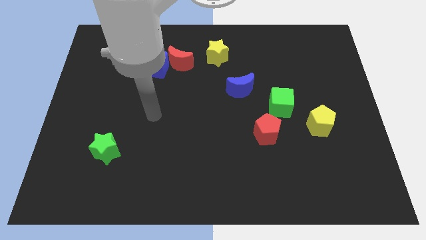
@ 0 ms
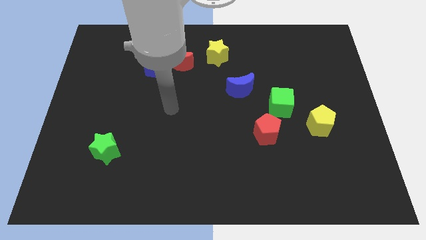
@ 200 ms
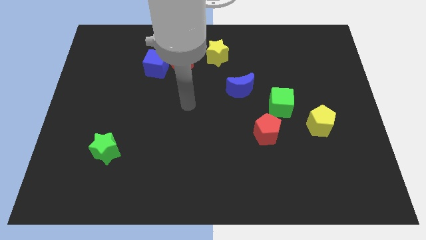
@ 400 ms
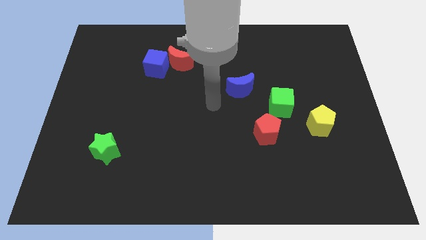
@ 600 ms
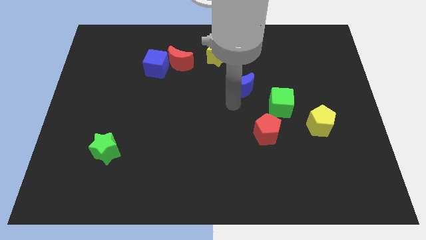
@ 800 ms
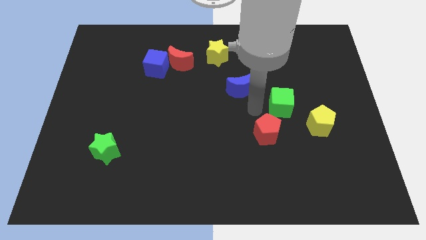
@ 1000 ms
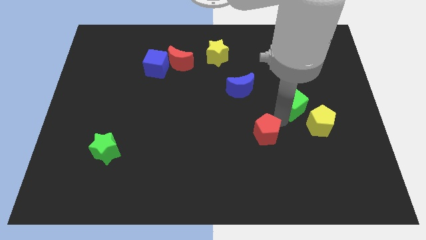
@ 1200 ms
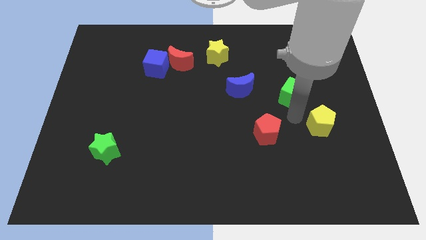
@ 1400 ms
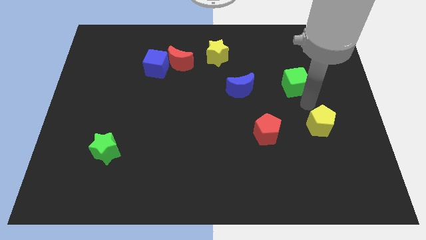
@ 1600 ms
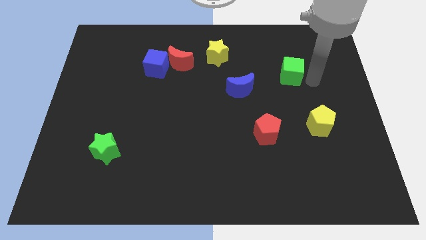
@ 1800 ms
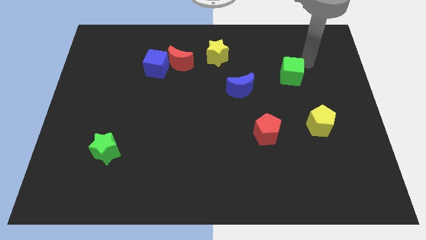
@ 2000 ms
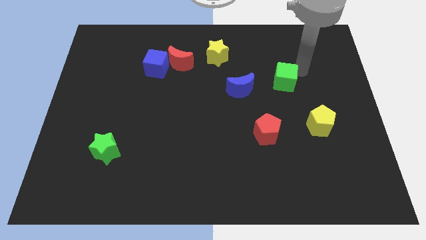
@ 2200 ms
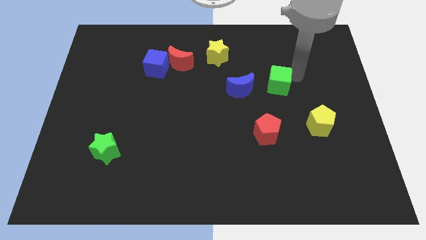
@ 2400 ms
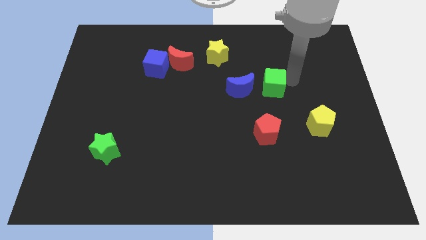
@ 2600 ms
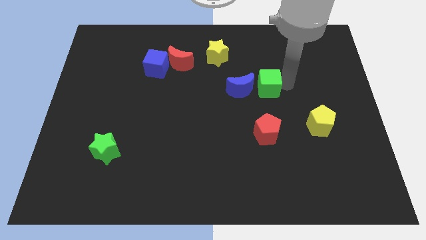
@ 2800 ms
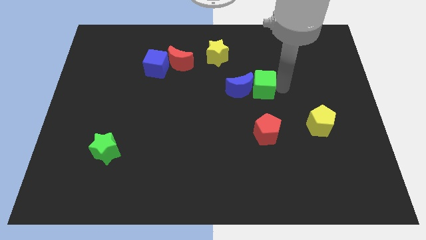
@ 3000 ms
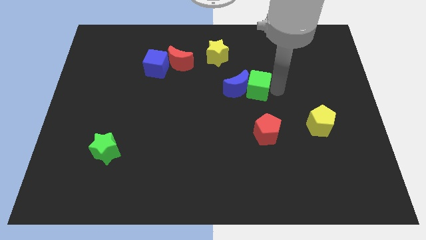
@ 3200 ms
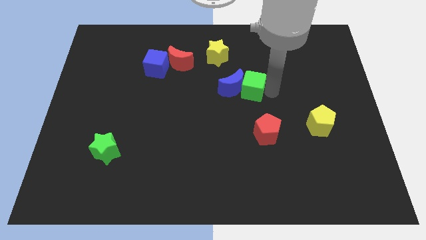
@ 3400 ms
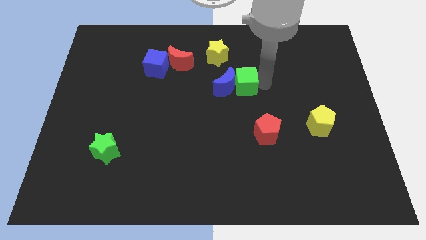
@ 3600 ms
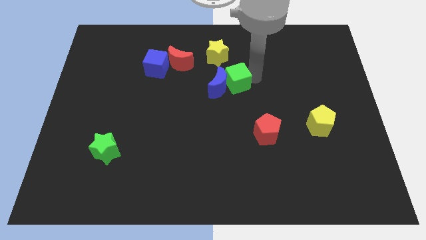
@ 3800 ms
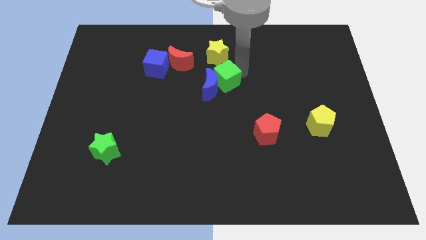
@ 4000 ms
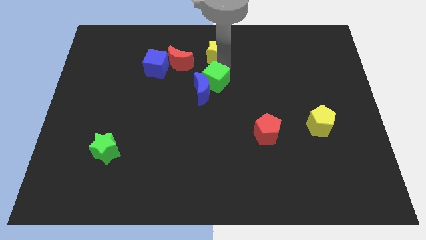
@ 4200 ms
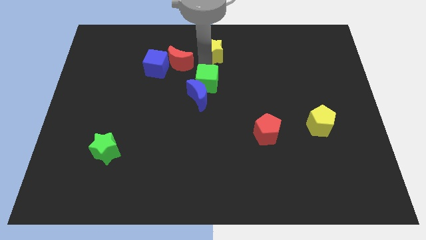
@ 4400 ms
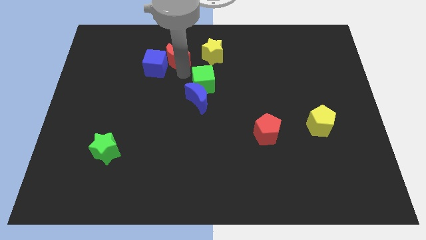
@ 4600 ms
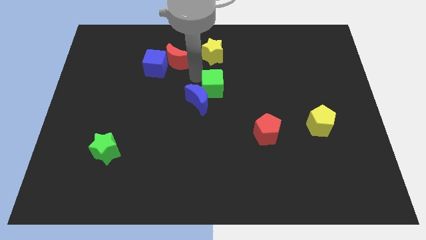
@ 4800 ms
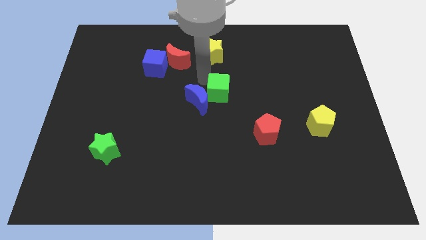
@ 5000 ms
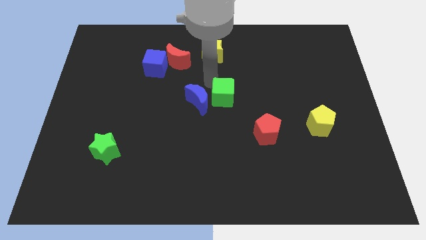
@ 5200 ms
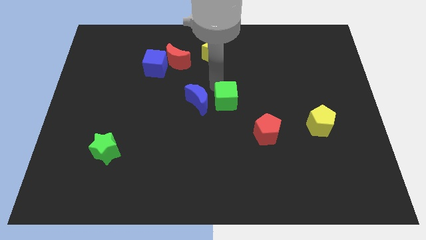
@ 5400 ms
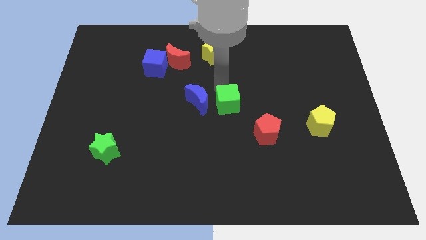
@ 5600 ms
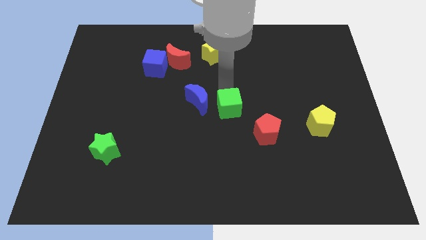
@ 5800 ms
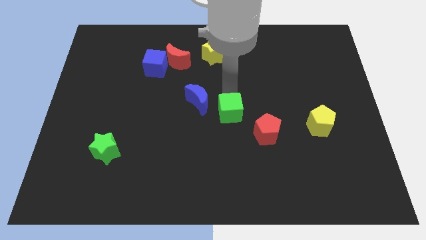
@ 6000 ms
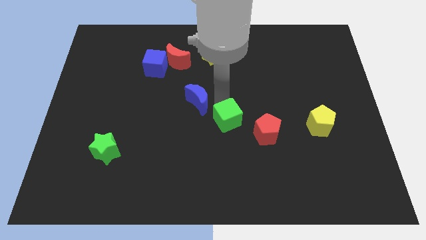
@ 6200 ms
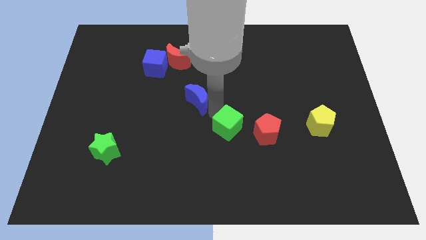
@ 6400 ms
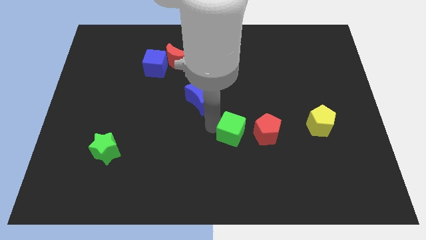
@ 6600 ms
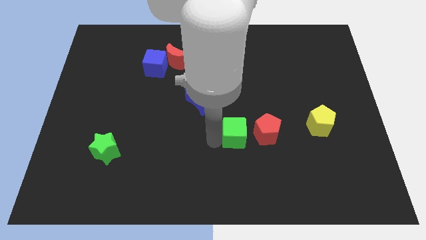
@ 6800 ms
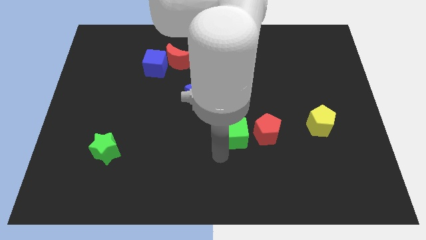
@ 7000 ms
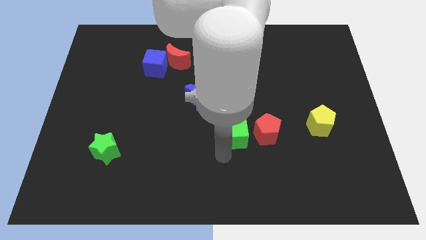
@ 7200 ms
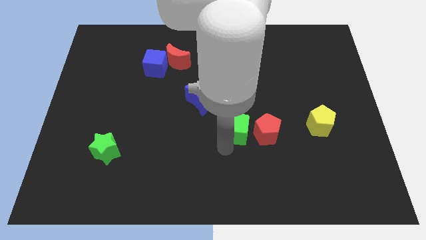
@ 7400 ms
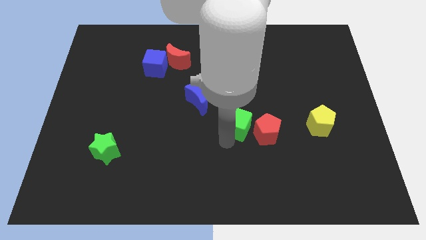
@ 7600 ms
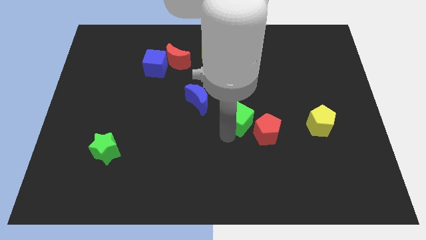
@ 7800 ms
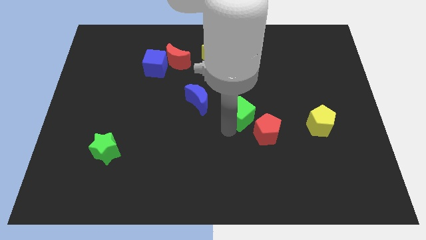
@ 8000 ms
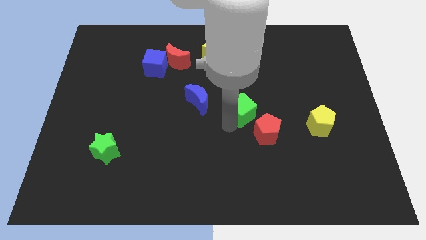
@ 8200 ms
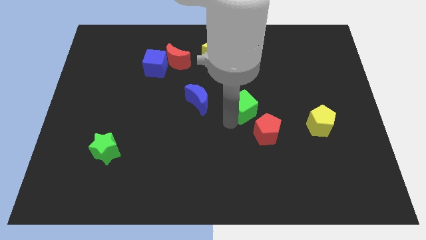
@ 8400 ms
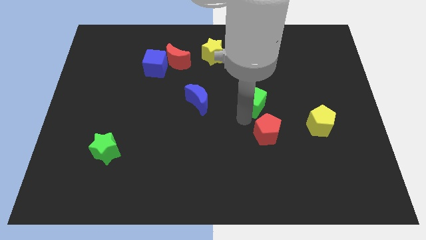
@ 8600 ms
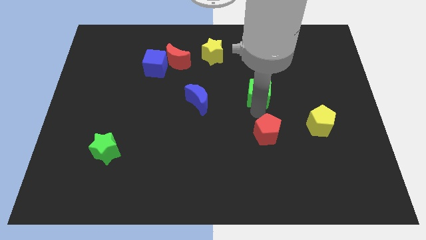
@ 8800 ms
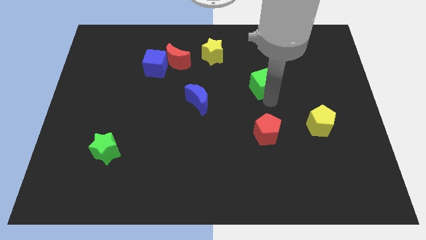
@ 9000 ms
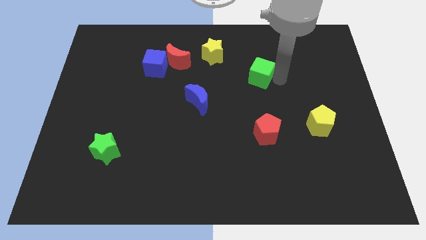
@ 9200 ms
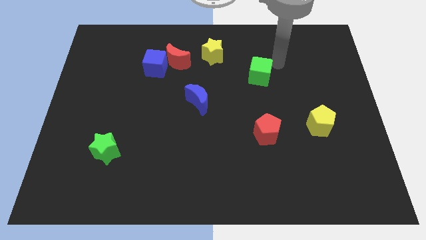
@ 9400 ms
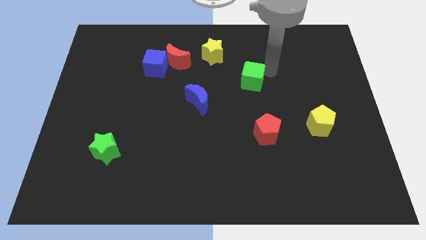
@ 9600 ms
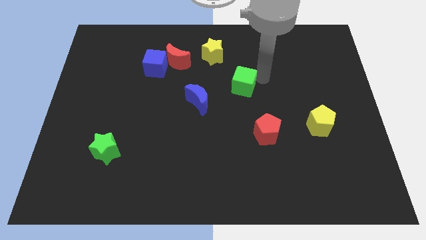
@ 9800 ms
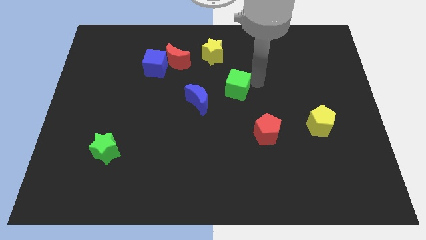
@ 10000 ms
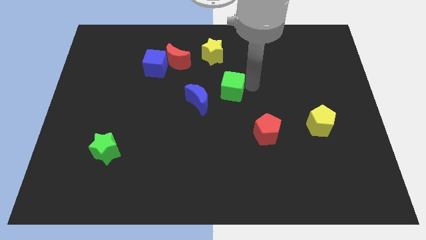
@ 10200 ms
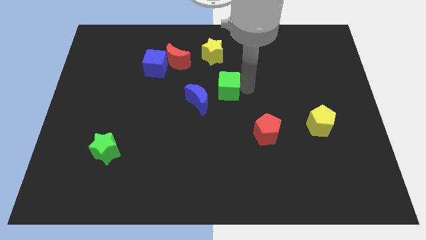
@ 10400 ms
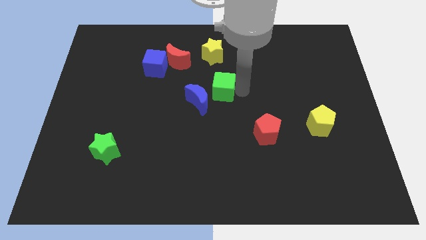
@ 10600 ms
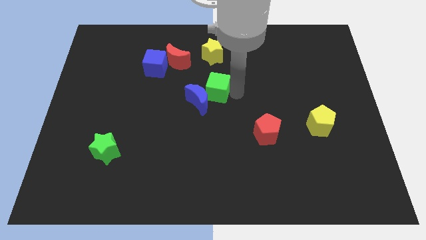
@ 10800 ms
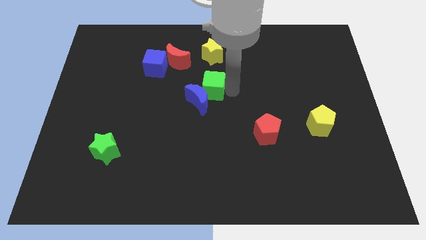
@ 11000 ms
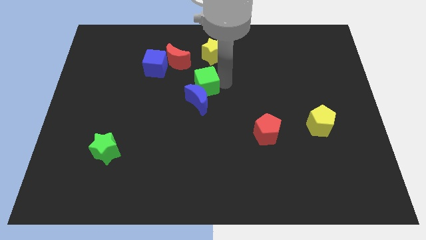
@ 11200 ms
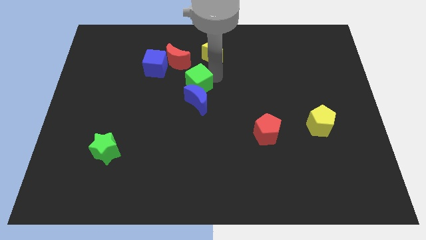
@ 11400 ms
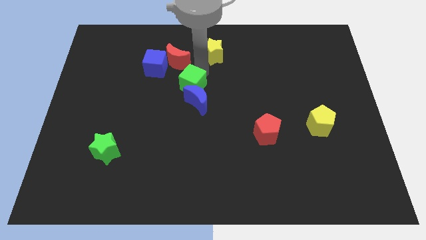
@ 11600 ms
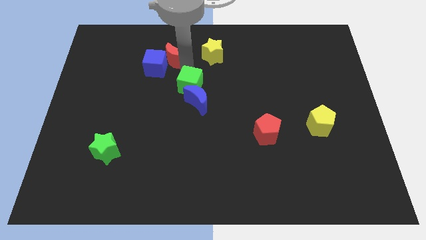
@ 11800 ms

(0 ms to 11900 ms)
push the green cube to the left

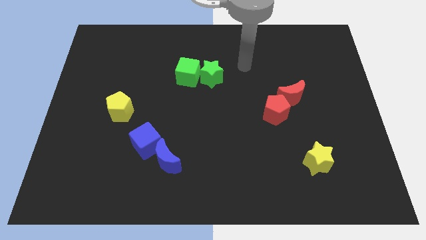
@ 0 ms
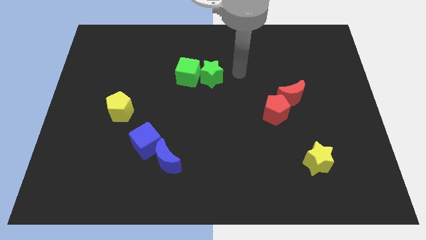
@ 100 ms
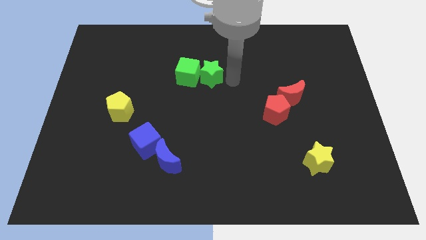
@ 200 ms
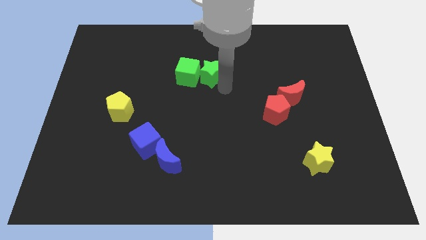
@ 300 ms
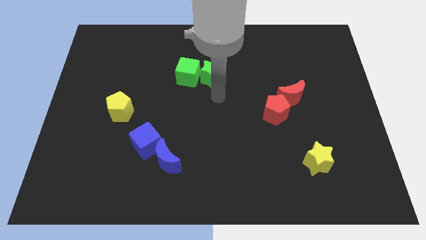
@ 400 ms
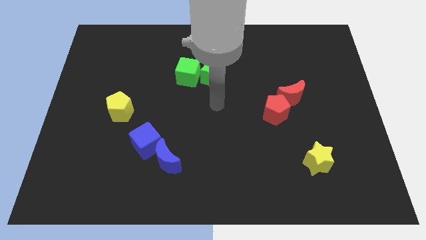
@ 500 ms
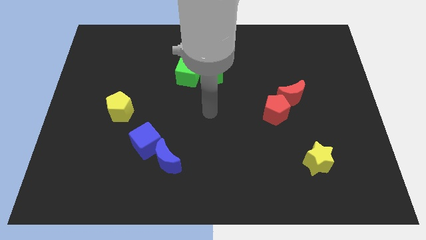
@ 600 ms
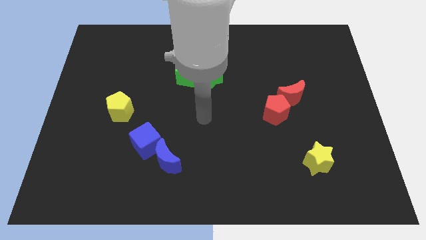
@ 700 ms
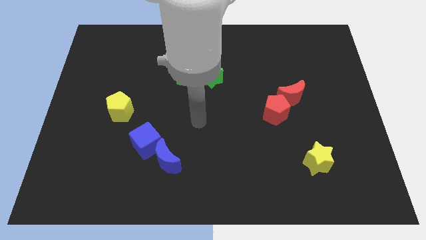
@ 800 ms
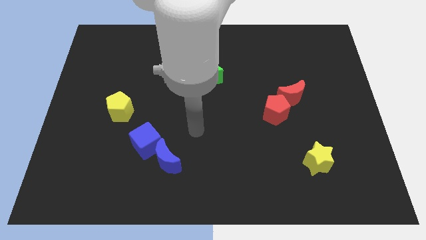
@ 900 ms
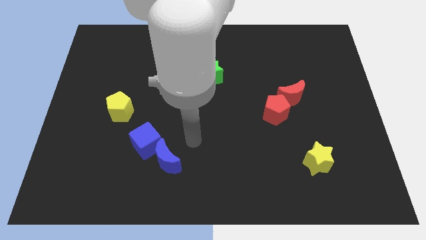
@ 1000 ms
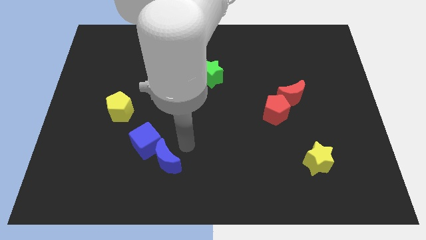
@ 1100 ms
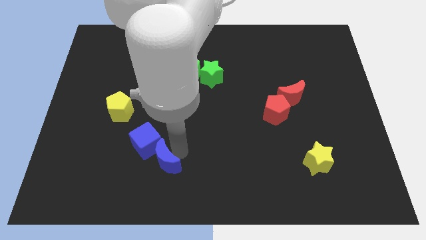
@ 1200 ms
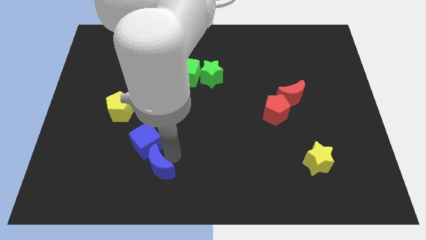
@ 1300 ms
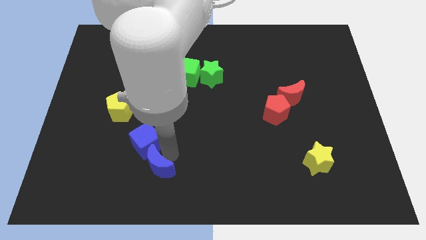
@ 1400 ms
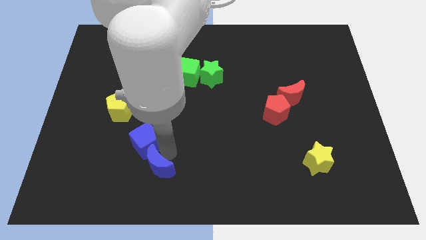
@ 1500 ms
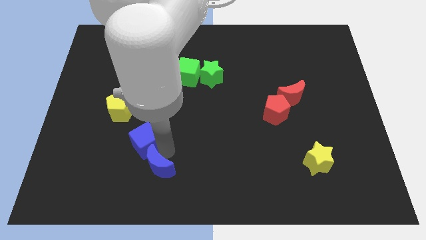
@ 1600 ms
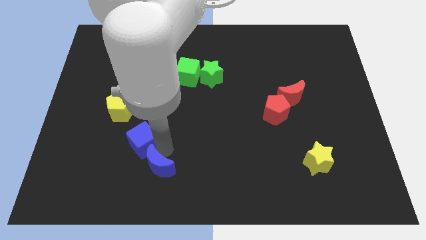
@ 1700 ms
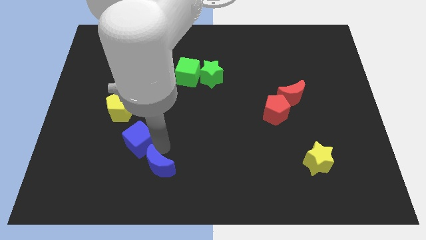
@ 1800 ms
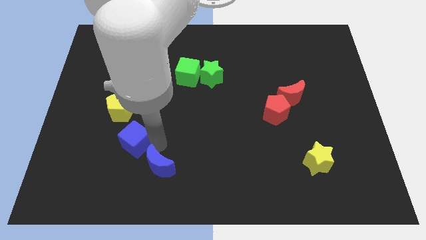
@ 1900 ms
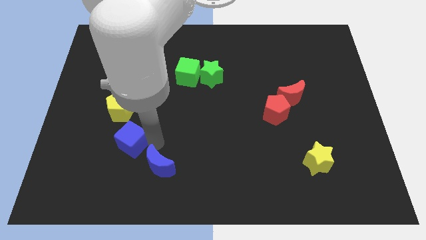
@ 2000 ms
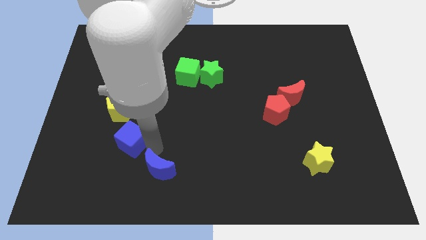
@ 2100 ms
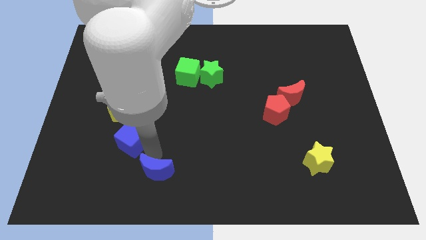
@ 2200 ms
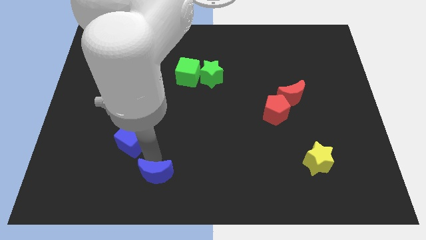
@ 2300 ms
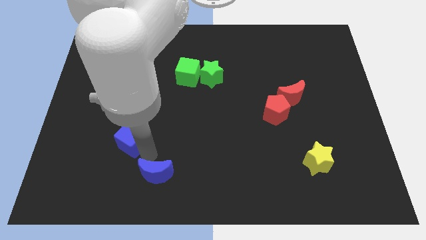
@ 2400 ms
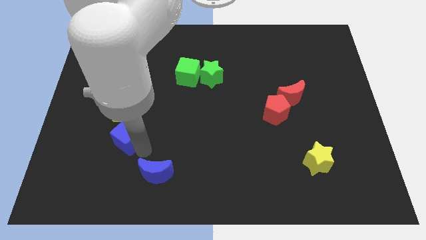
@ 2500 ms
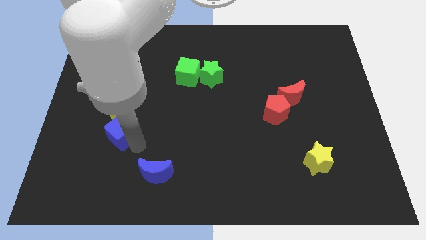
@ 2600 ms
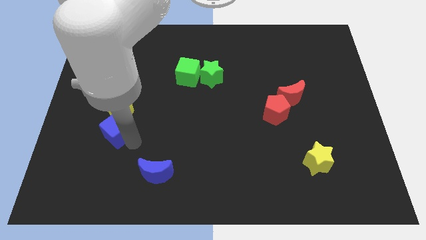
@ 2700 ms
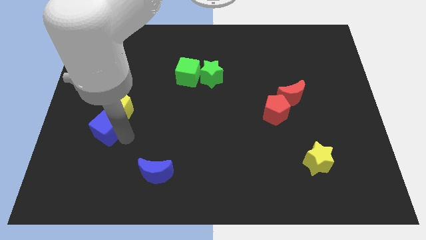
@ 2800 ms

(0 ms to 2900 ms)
push the blue cube upwards and to the left diagonally slightly
